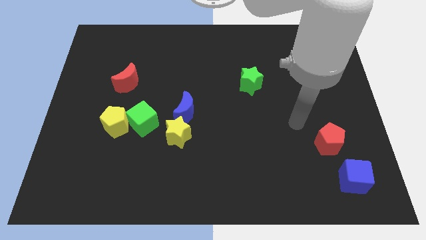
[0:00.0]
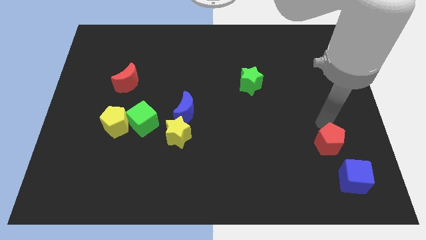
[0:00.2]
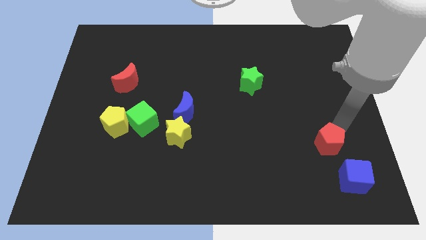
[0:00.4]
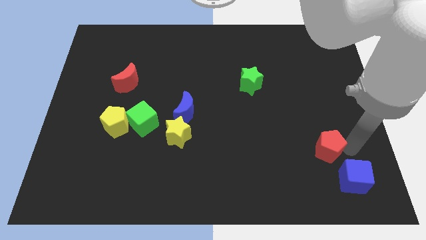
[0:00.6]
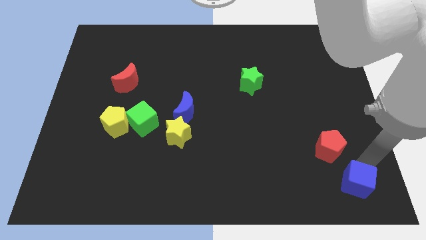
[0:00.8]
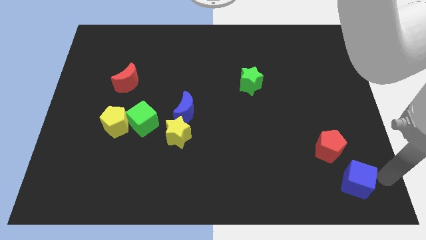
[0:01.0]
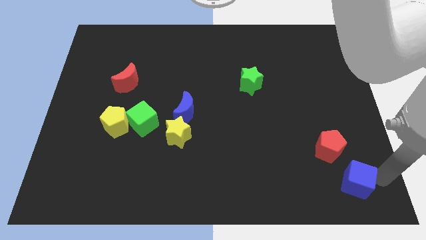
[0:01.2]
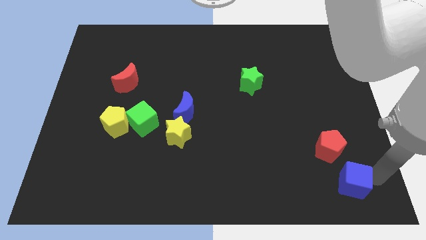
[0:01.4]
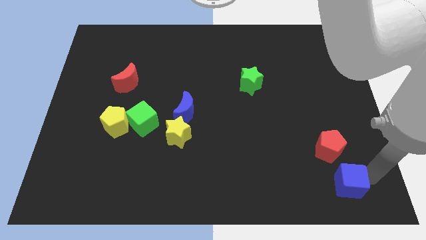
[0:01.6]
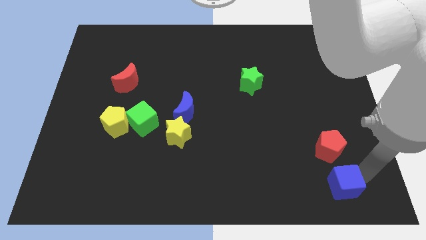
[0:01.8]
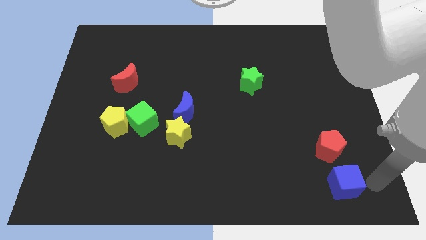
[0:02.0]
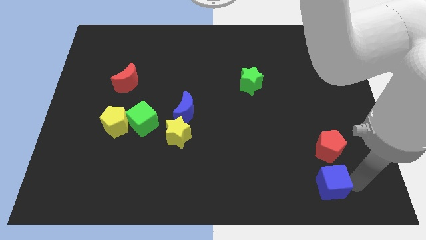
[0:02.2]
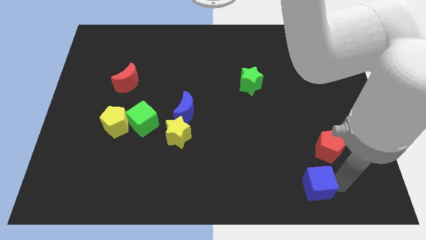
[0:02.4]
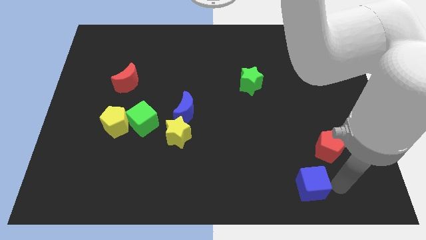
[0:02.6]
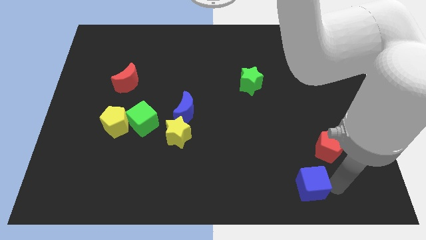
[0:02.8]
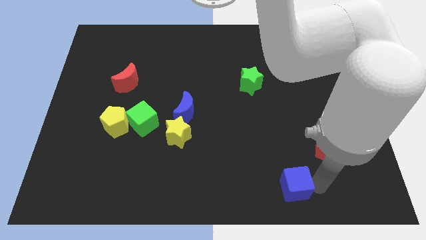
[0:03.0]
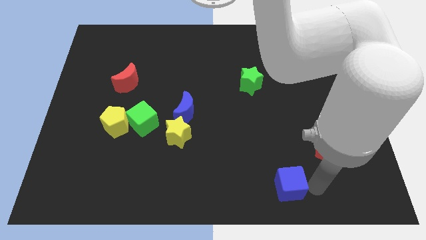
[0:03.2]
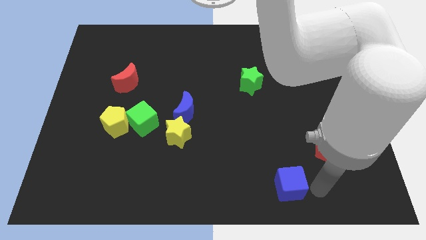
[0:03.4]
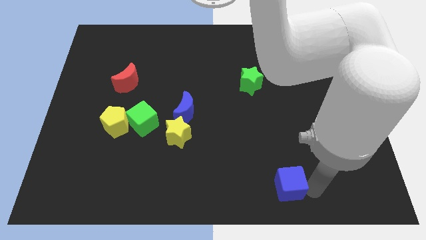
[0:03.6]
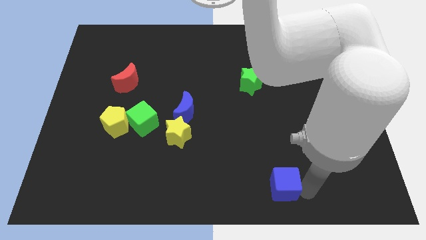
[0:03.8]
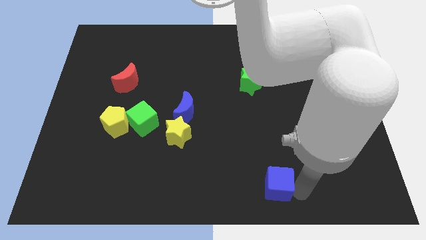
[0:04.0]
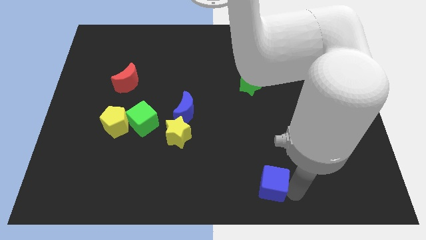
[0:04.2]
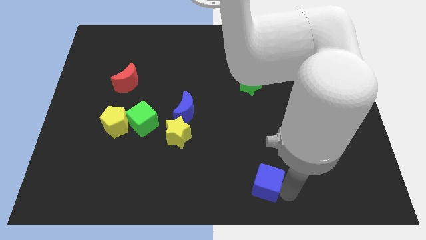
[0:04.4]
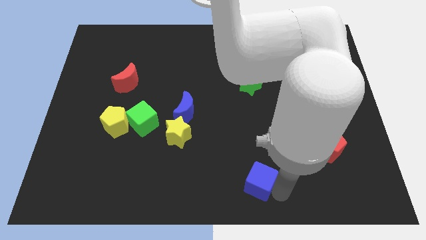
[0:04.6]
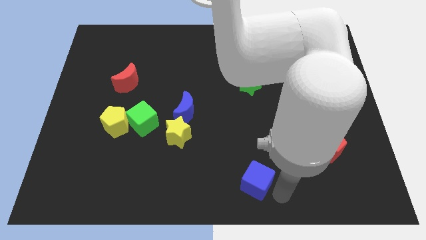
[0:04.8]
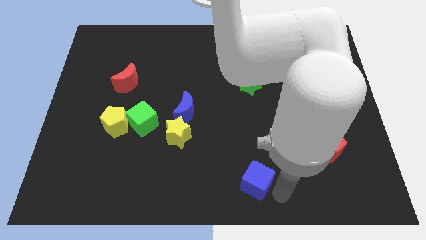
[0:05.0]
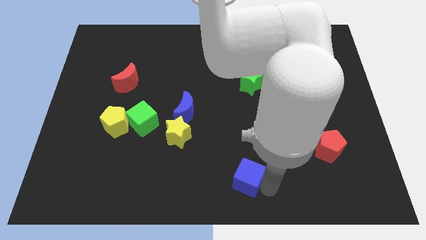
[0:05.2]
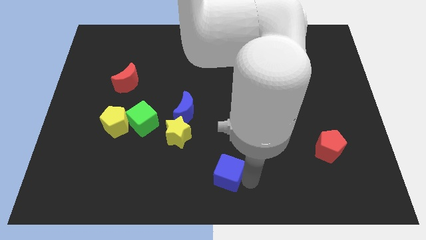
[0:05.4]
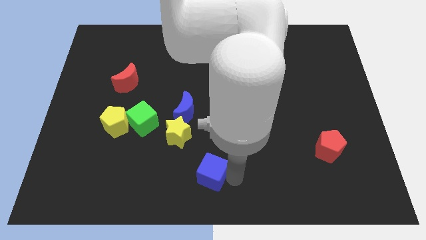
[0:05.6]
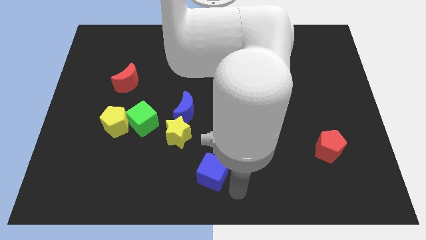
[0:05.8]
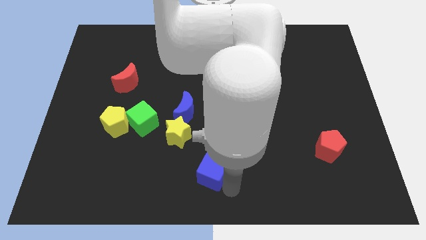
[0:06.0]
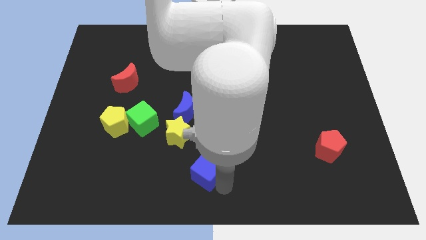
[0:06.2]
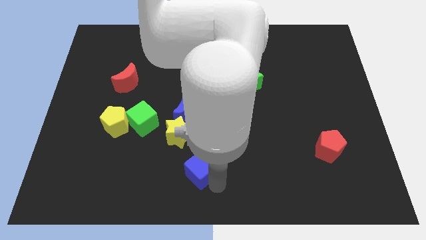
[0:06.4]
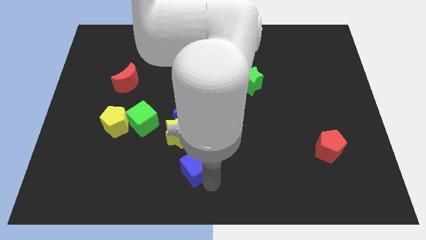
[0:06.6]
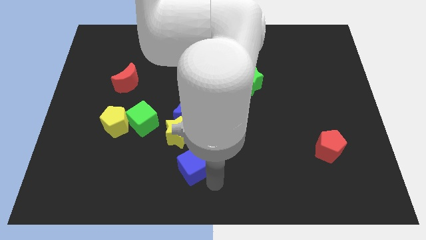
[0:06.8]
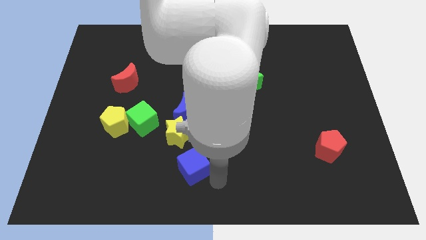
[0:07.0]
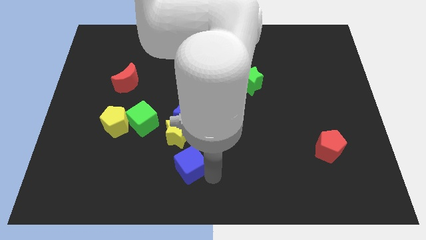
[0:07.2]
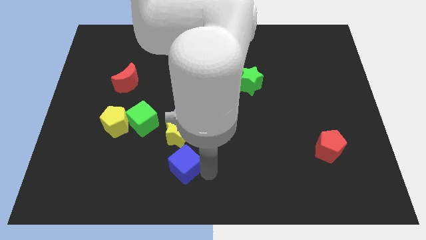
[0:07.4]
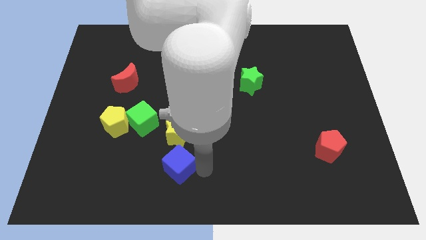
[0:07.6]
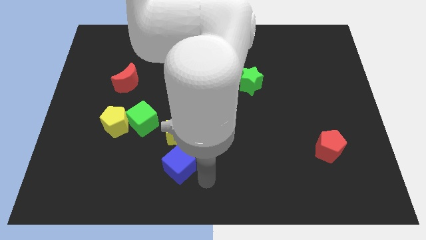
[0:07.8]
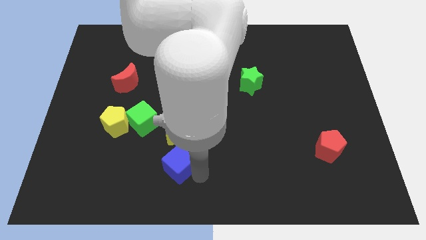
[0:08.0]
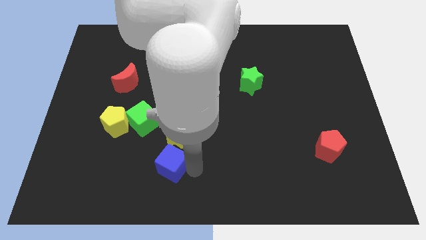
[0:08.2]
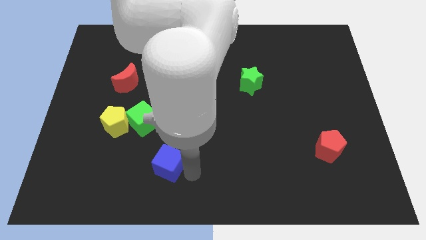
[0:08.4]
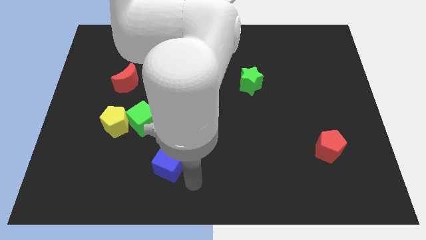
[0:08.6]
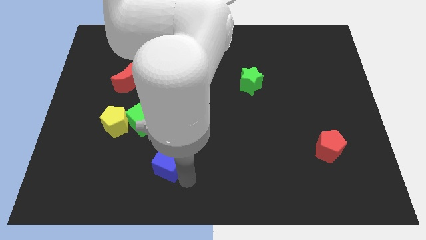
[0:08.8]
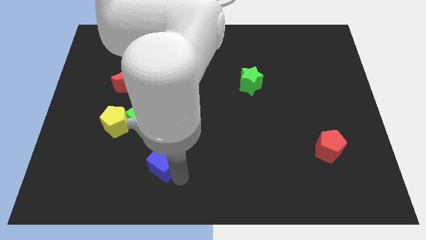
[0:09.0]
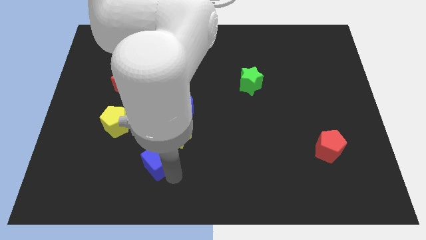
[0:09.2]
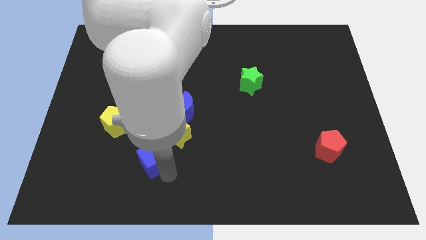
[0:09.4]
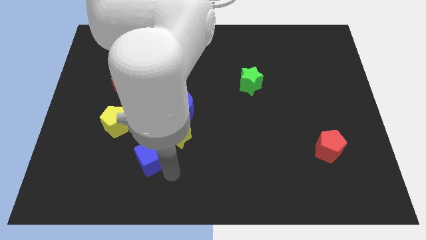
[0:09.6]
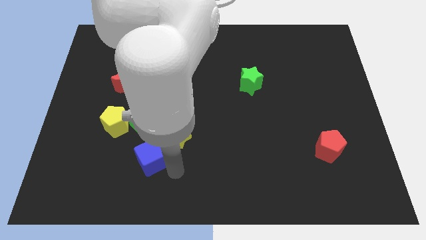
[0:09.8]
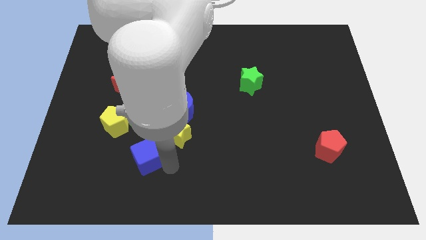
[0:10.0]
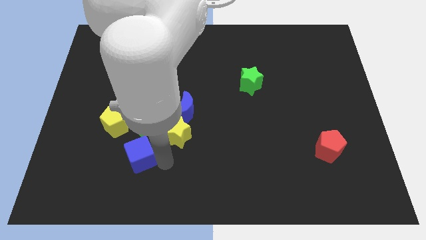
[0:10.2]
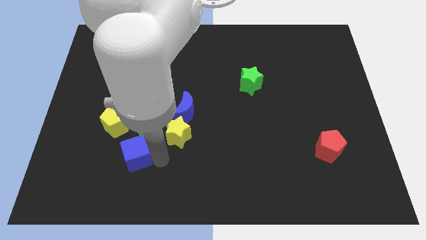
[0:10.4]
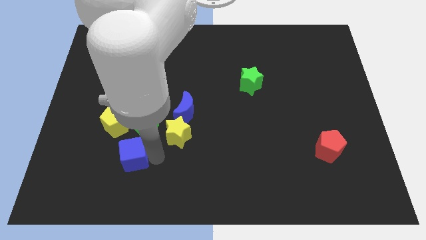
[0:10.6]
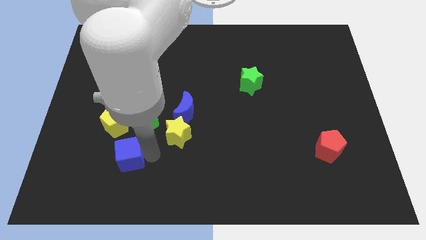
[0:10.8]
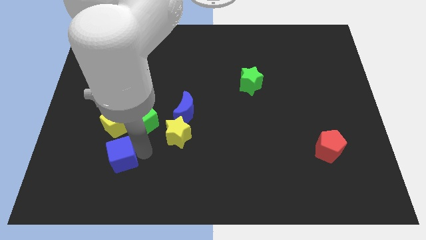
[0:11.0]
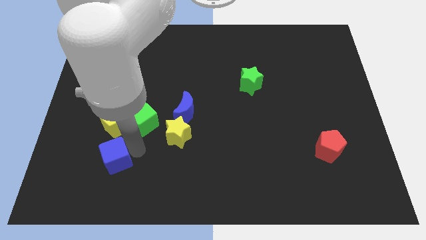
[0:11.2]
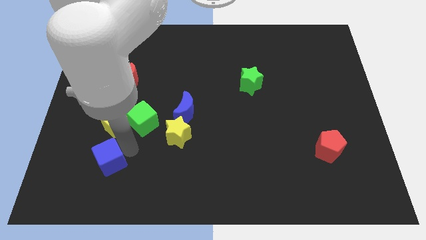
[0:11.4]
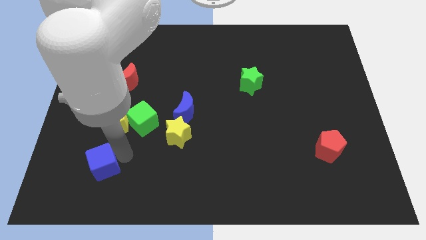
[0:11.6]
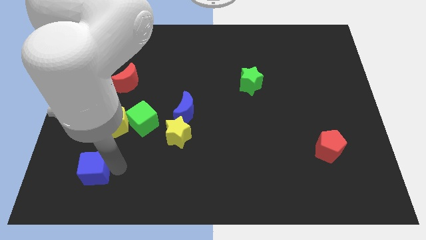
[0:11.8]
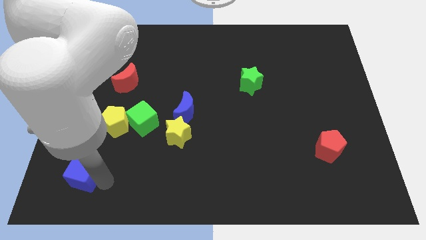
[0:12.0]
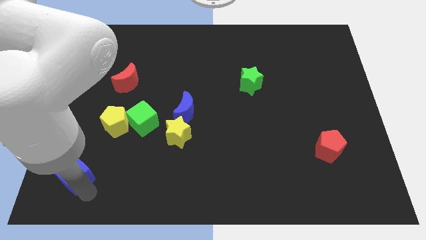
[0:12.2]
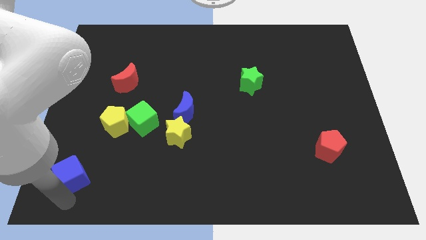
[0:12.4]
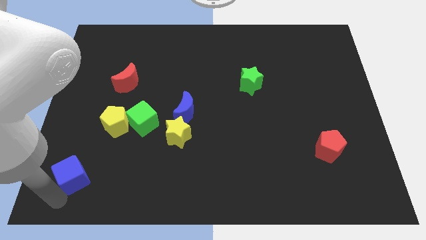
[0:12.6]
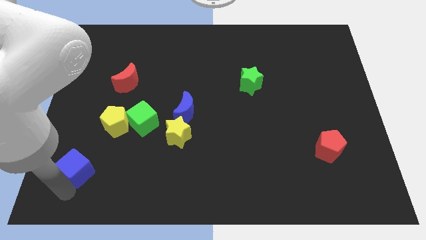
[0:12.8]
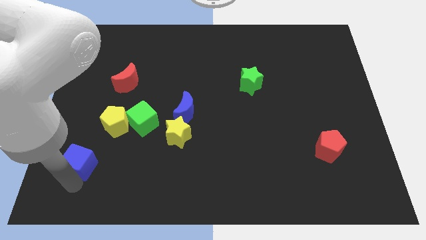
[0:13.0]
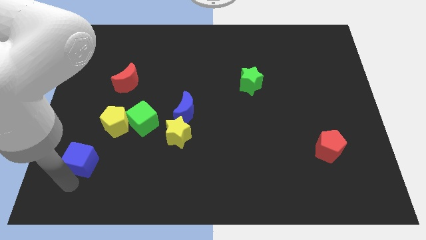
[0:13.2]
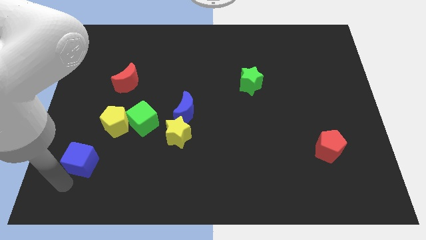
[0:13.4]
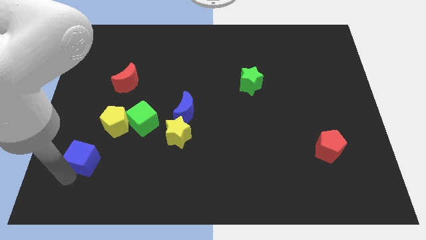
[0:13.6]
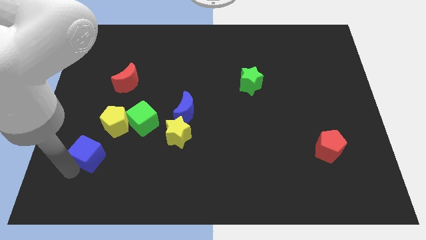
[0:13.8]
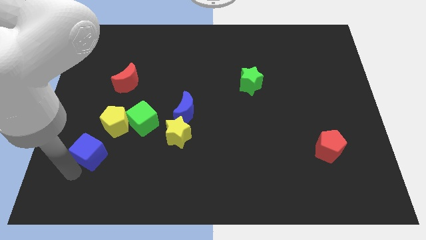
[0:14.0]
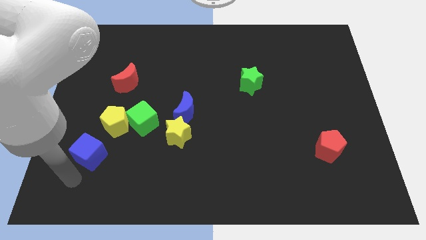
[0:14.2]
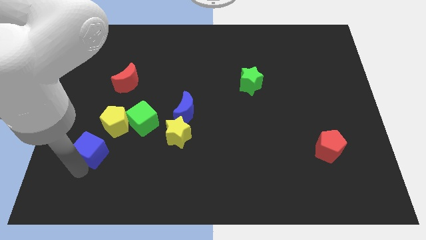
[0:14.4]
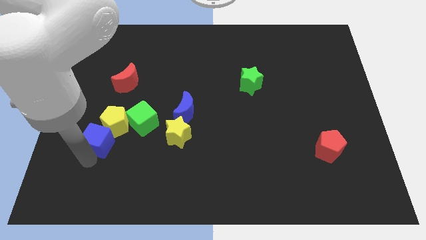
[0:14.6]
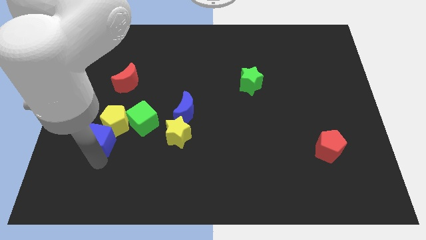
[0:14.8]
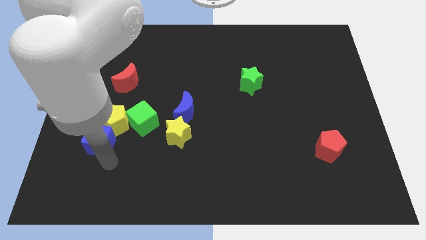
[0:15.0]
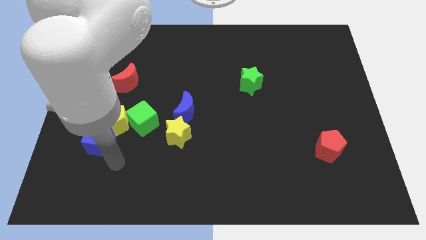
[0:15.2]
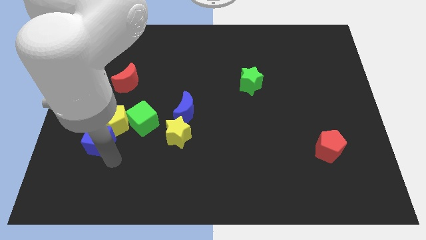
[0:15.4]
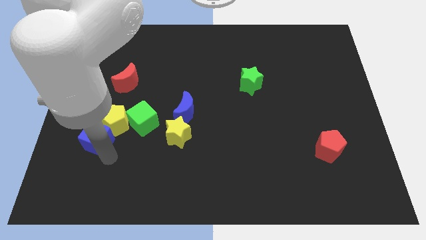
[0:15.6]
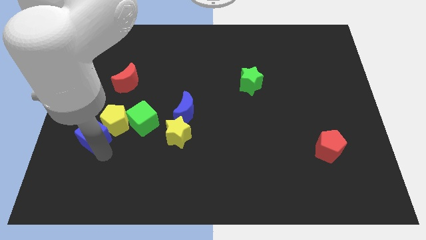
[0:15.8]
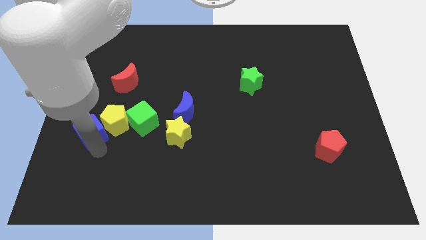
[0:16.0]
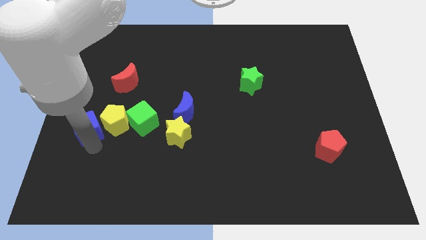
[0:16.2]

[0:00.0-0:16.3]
put the blue cube to the left side
